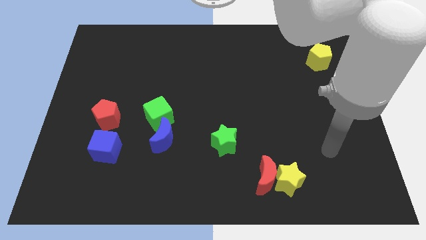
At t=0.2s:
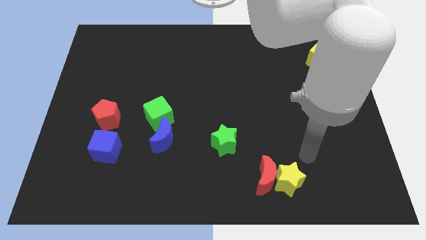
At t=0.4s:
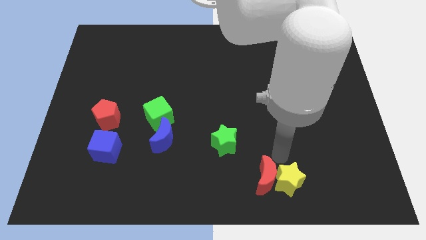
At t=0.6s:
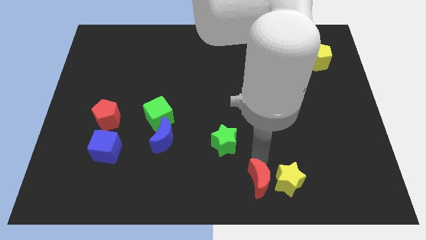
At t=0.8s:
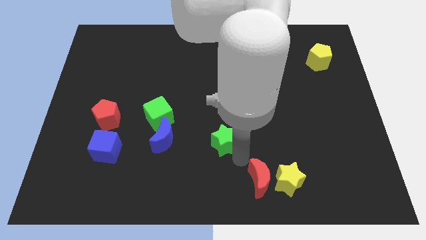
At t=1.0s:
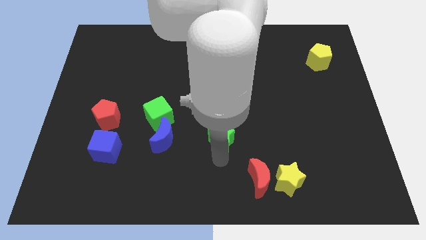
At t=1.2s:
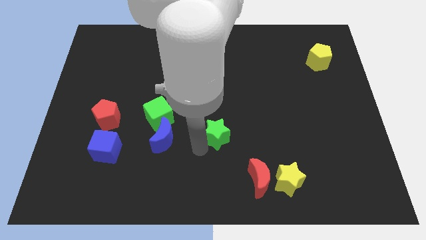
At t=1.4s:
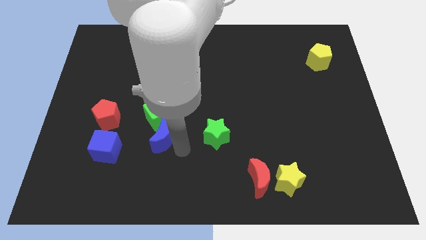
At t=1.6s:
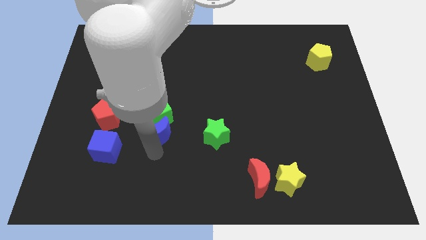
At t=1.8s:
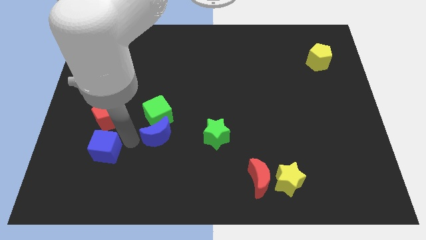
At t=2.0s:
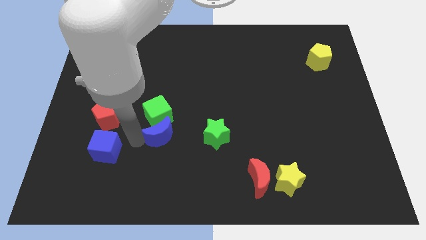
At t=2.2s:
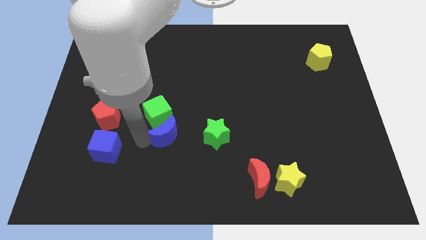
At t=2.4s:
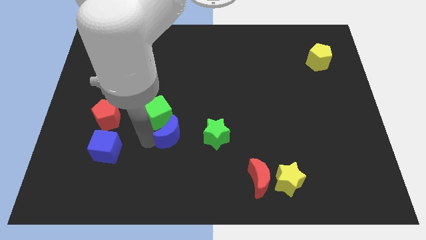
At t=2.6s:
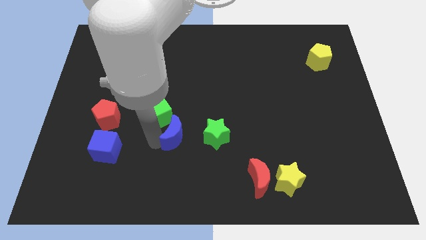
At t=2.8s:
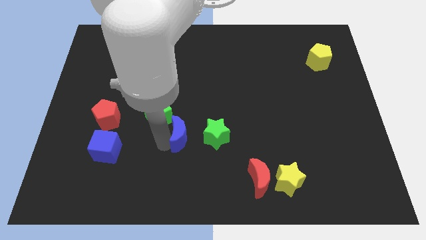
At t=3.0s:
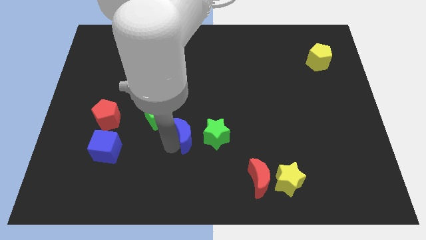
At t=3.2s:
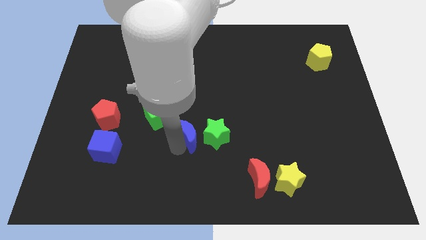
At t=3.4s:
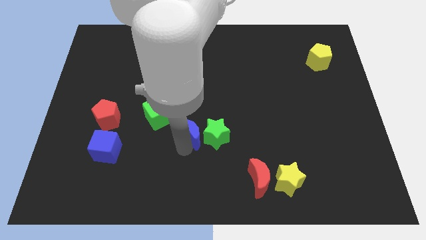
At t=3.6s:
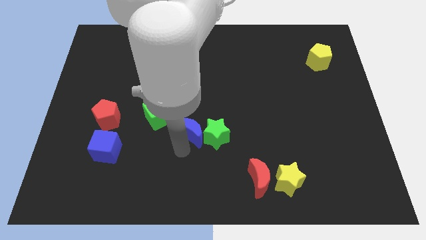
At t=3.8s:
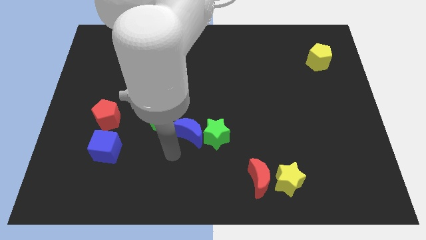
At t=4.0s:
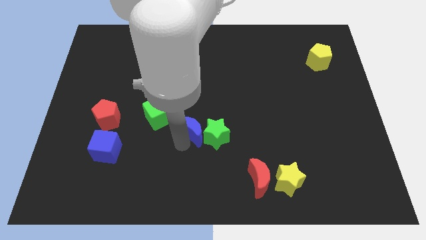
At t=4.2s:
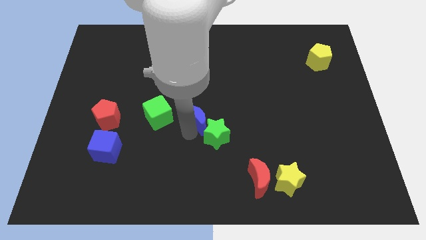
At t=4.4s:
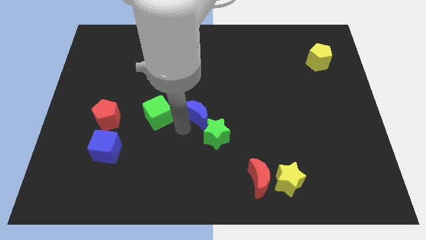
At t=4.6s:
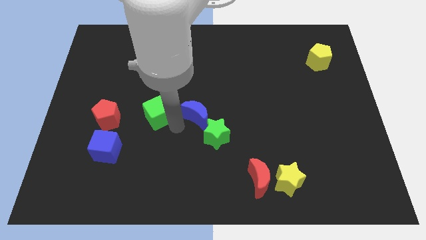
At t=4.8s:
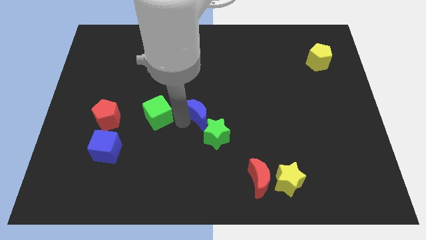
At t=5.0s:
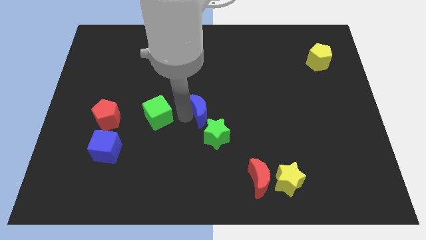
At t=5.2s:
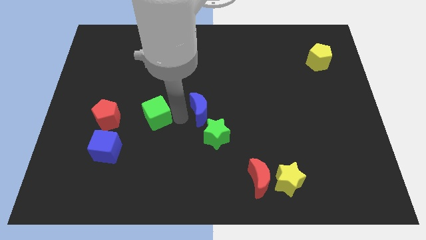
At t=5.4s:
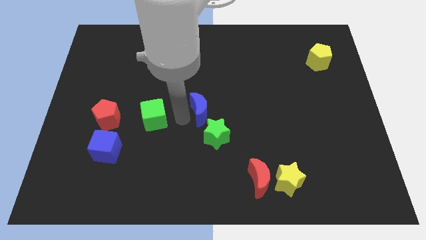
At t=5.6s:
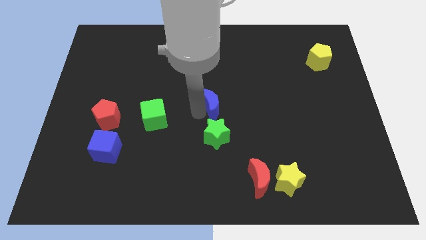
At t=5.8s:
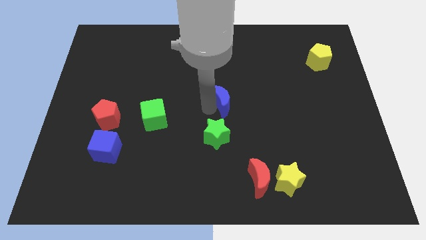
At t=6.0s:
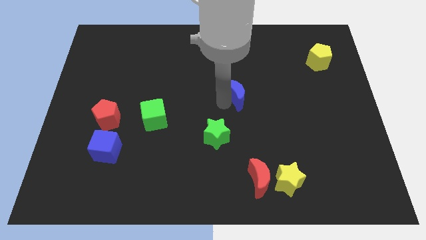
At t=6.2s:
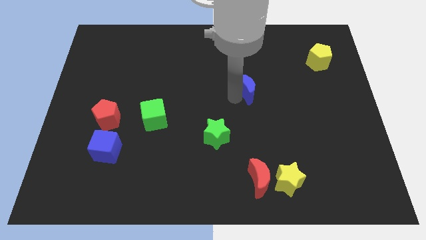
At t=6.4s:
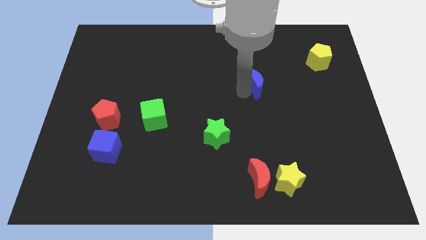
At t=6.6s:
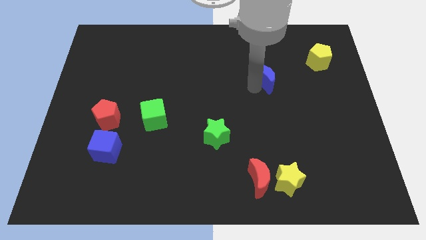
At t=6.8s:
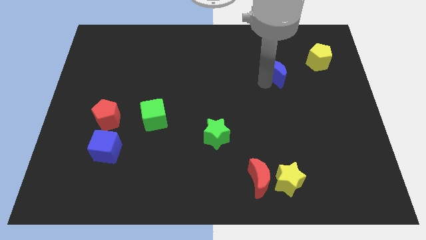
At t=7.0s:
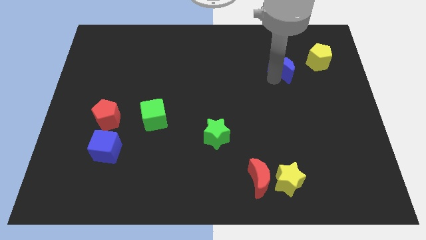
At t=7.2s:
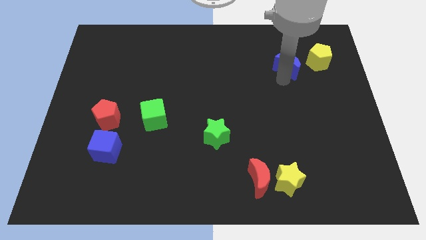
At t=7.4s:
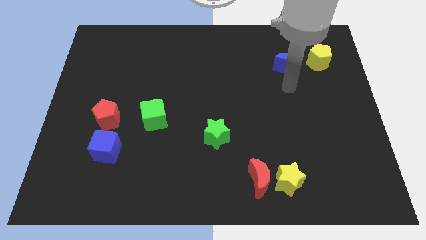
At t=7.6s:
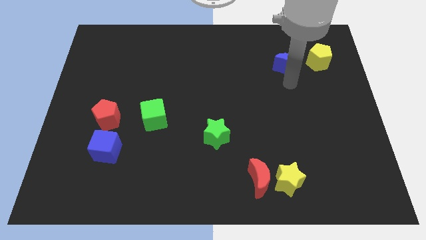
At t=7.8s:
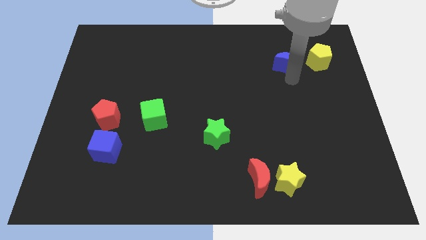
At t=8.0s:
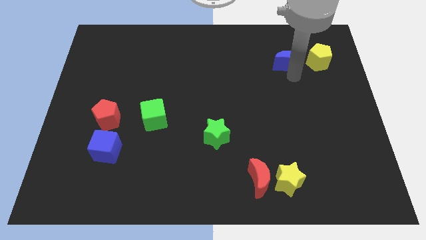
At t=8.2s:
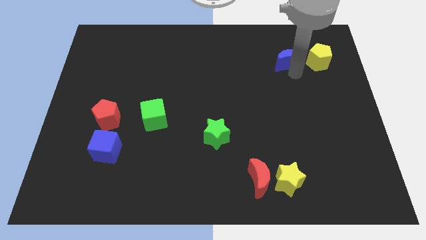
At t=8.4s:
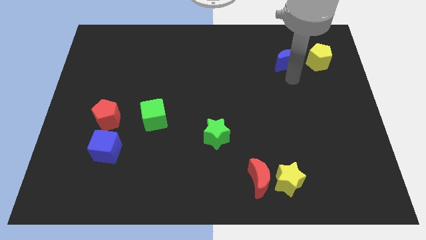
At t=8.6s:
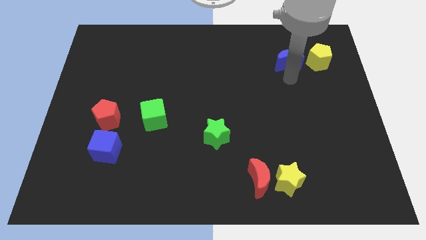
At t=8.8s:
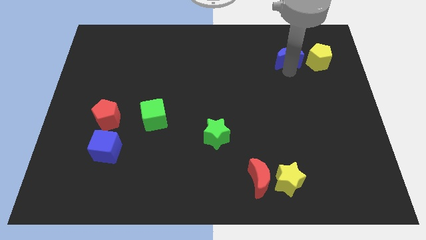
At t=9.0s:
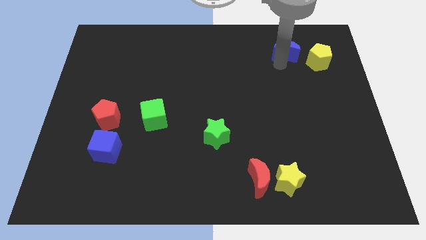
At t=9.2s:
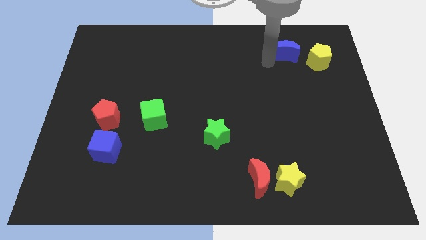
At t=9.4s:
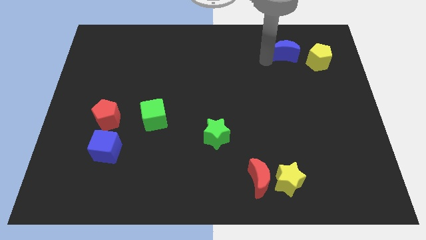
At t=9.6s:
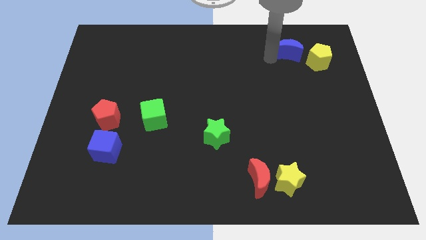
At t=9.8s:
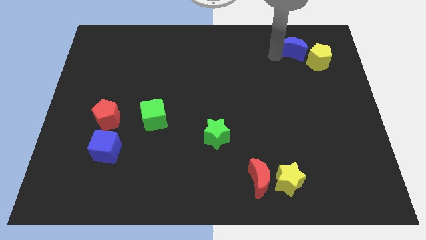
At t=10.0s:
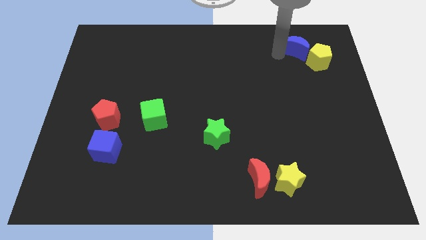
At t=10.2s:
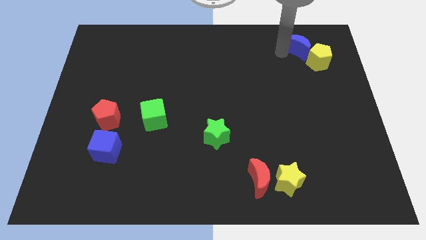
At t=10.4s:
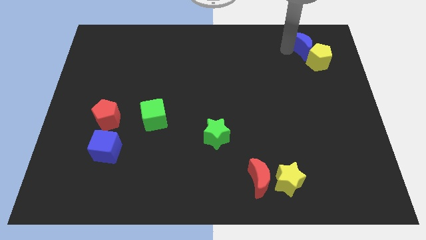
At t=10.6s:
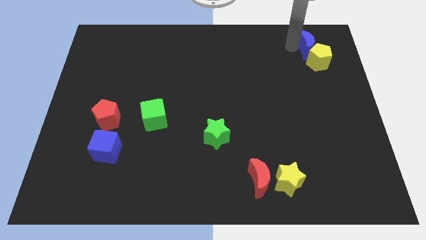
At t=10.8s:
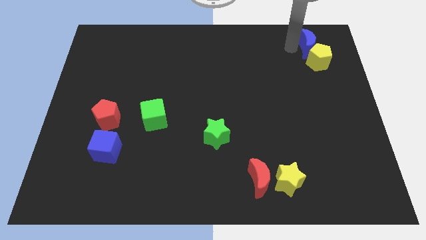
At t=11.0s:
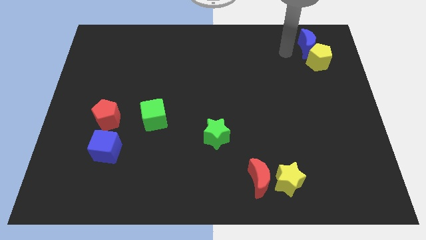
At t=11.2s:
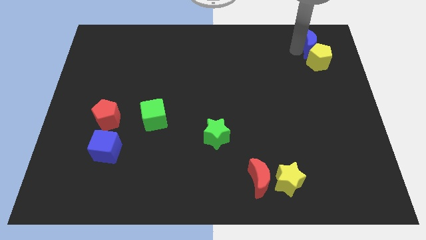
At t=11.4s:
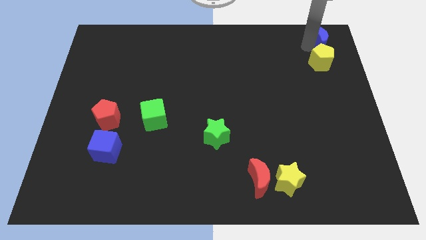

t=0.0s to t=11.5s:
push the blue moon to the top right
